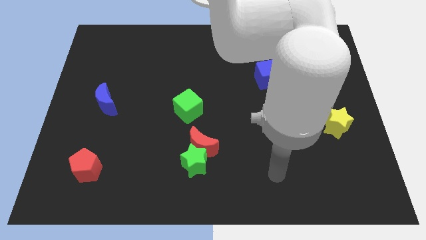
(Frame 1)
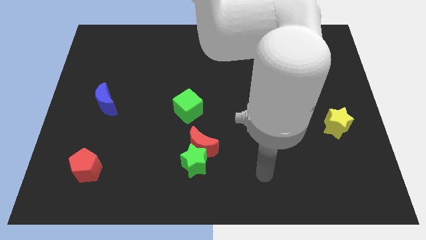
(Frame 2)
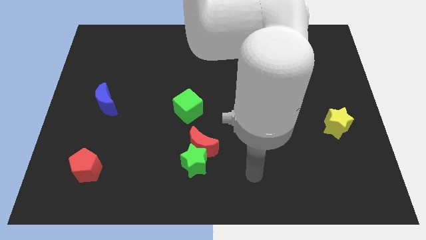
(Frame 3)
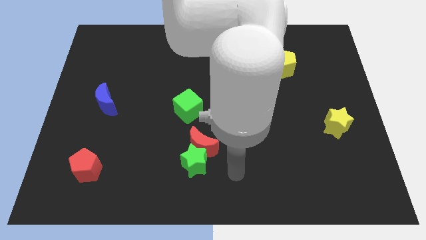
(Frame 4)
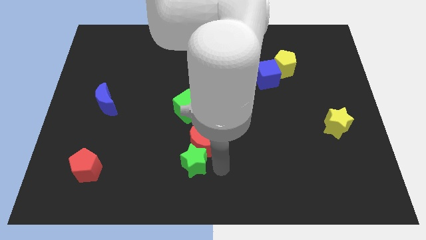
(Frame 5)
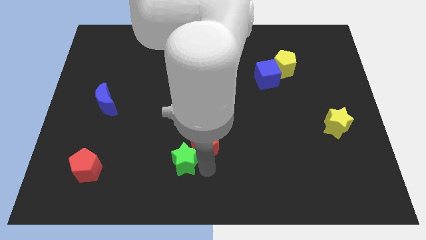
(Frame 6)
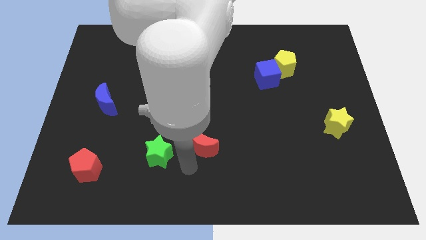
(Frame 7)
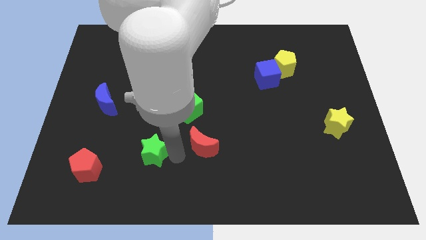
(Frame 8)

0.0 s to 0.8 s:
separate the red moon from the green star

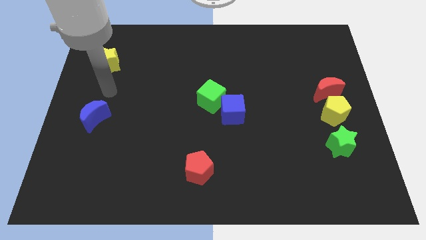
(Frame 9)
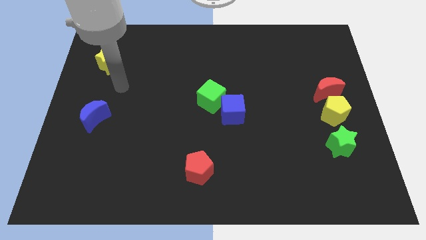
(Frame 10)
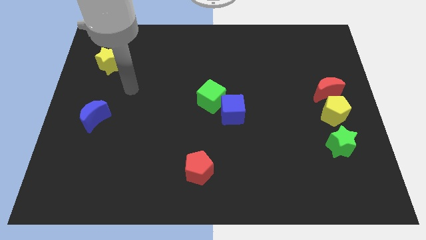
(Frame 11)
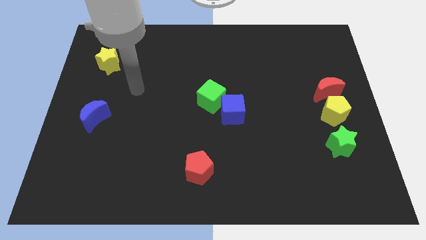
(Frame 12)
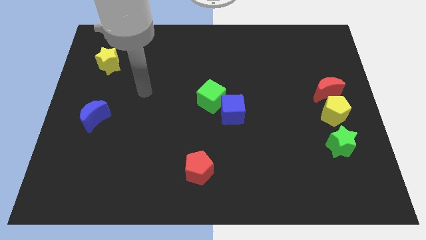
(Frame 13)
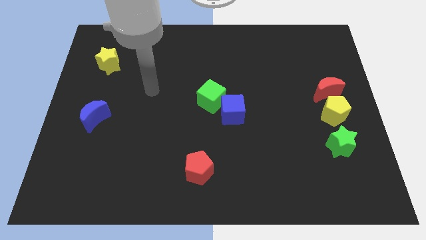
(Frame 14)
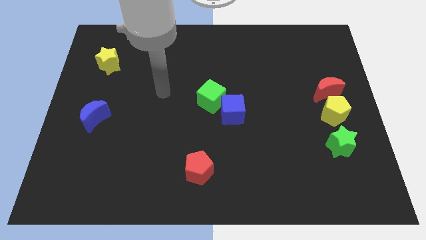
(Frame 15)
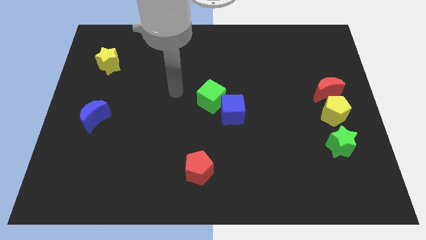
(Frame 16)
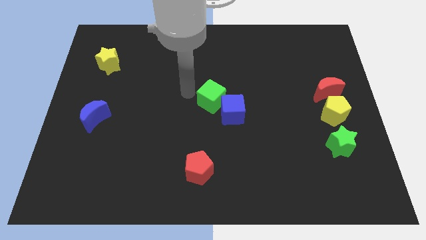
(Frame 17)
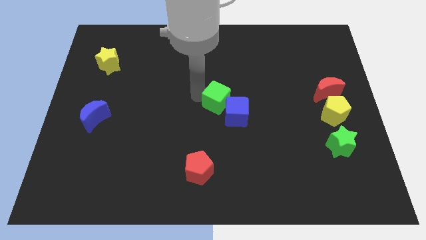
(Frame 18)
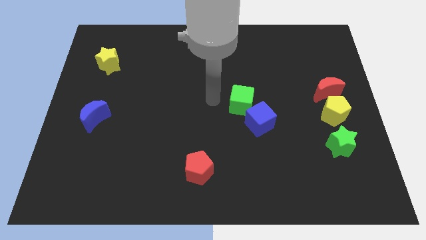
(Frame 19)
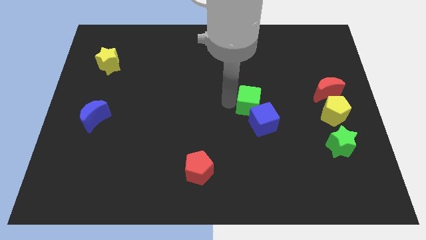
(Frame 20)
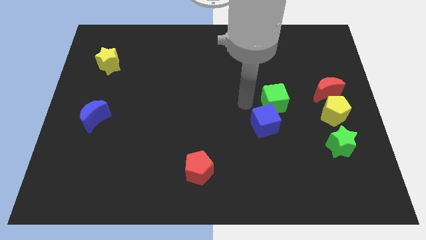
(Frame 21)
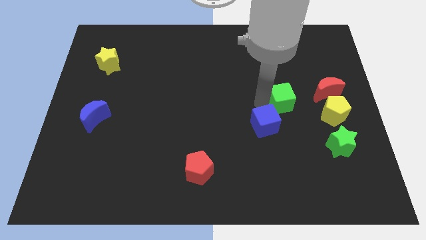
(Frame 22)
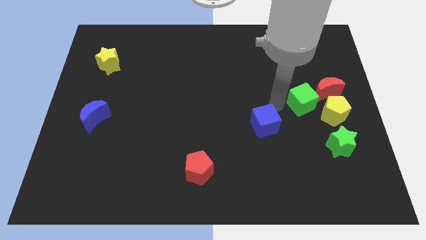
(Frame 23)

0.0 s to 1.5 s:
move the blue cube away from the green cube

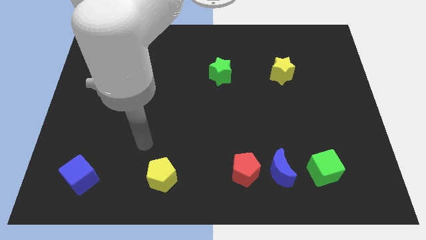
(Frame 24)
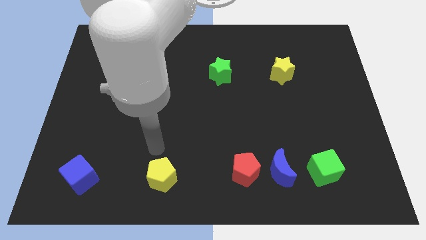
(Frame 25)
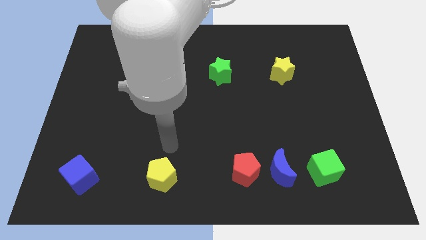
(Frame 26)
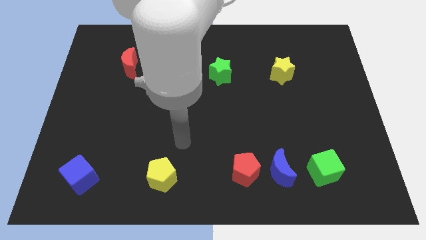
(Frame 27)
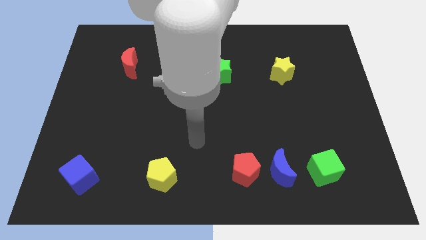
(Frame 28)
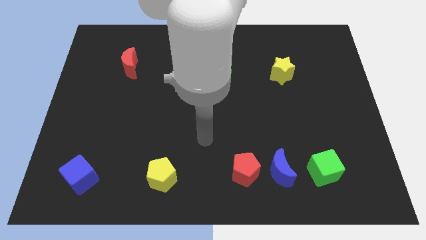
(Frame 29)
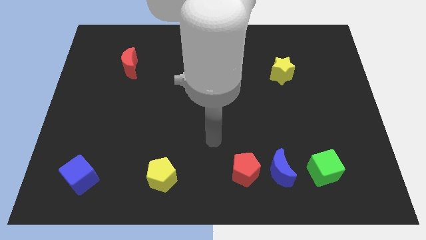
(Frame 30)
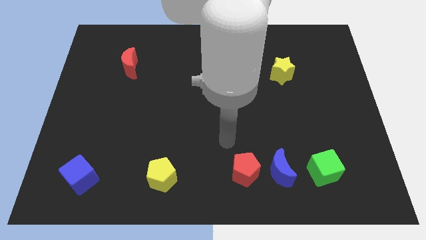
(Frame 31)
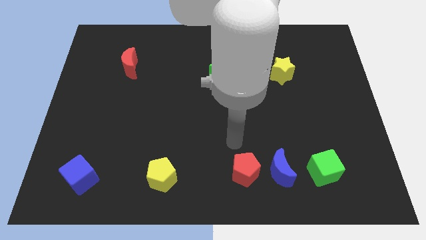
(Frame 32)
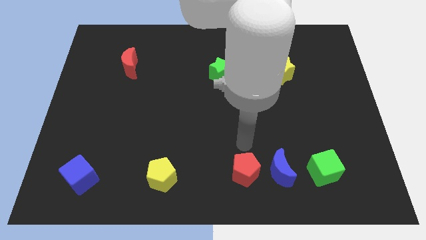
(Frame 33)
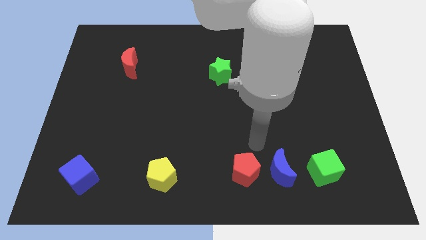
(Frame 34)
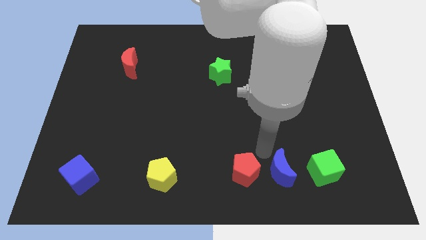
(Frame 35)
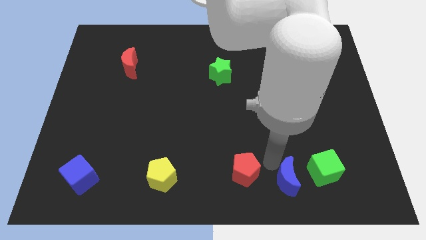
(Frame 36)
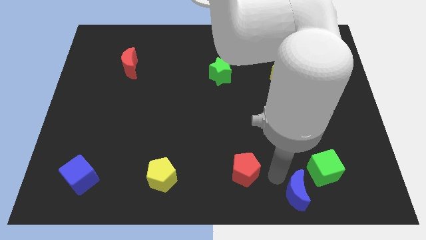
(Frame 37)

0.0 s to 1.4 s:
separate the red pentagon from the blue moon

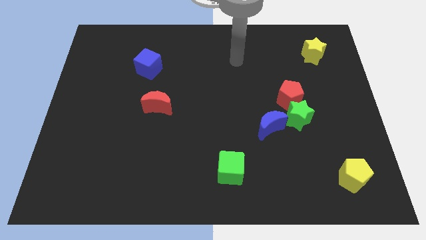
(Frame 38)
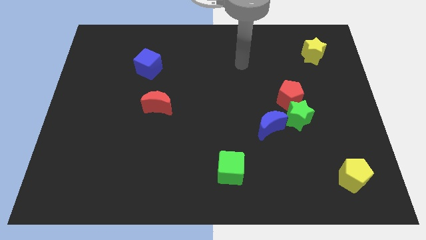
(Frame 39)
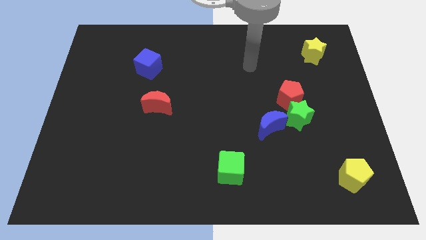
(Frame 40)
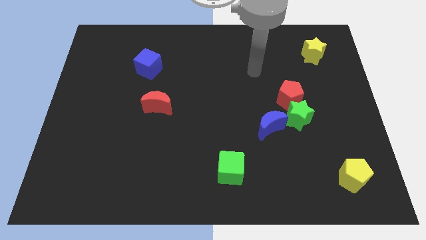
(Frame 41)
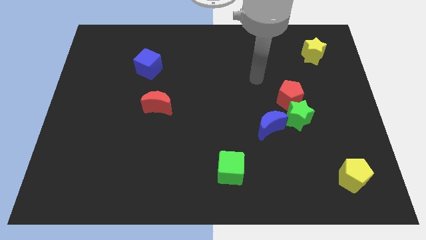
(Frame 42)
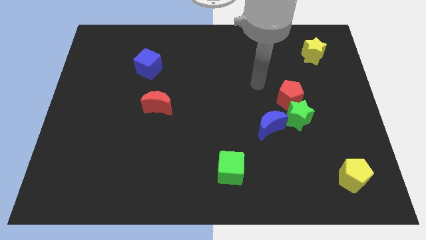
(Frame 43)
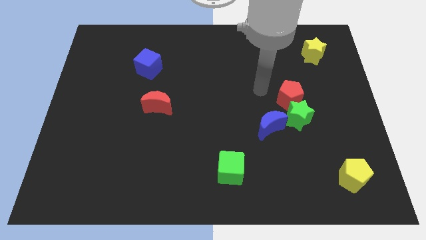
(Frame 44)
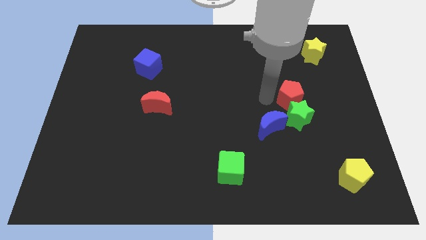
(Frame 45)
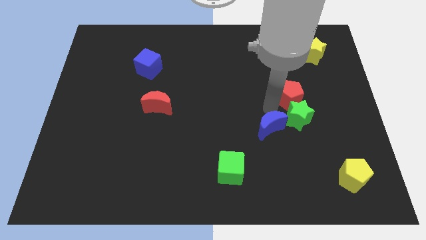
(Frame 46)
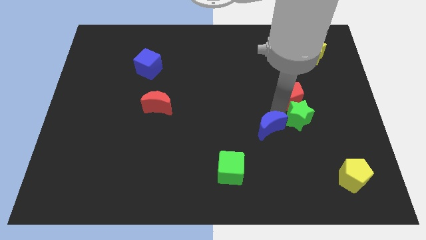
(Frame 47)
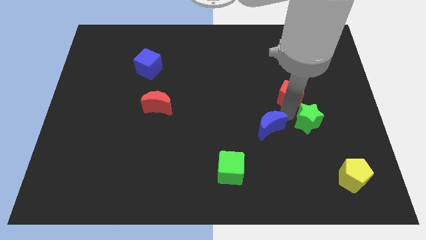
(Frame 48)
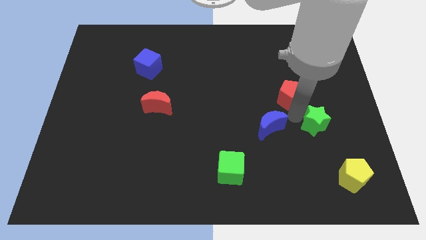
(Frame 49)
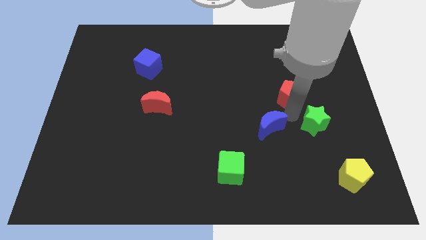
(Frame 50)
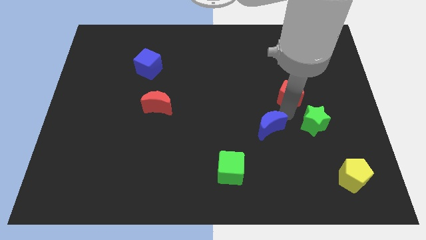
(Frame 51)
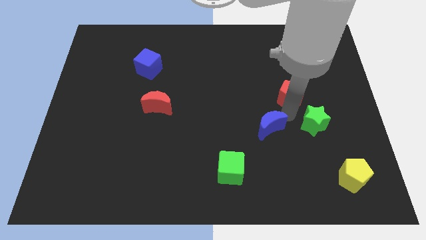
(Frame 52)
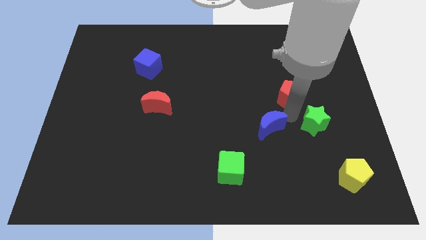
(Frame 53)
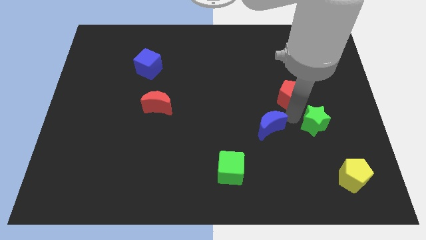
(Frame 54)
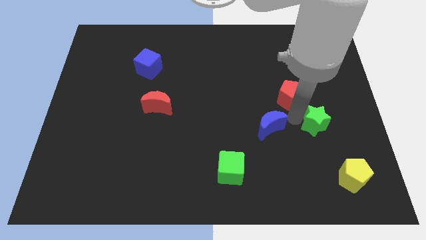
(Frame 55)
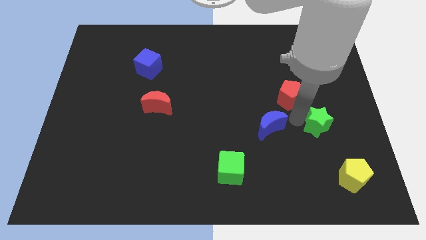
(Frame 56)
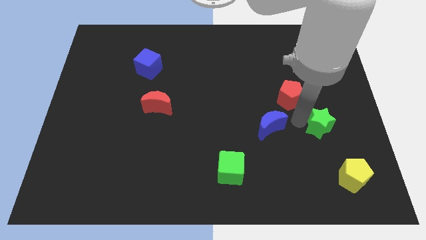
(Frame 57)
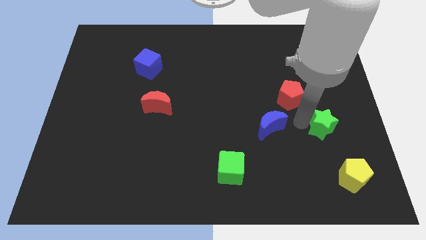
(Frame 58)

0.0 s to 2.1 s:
pull the green star apart from the red pentagon and blue moon

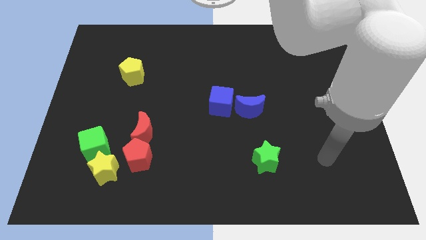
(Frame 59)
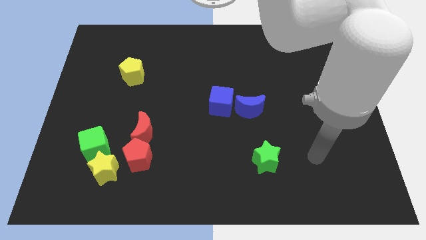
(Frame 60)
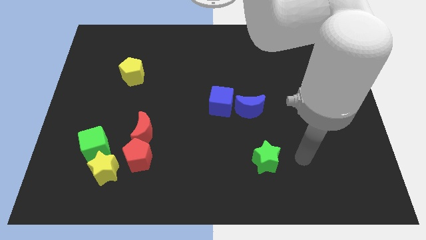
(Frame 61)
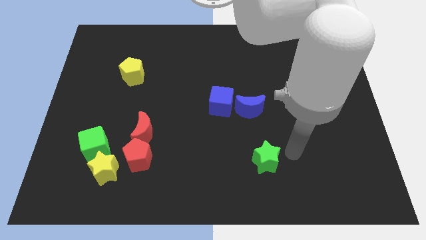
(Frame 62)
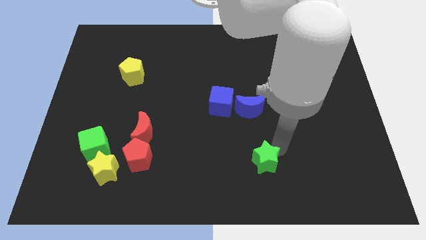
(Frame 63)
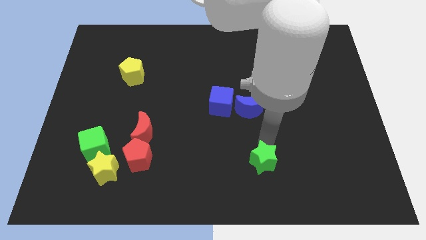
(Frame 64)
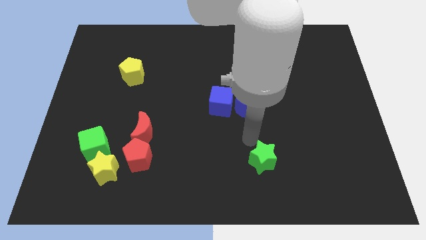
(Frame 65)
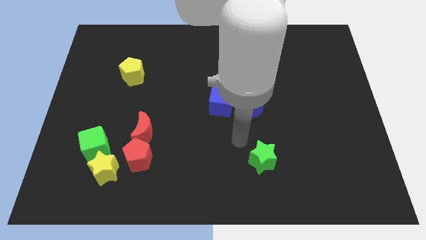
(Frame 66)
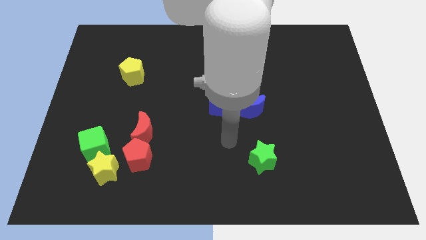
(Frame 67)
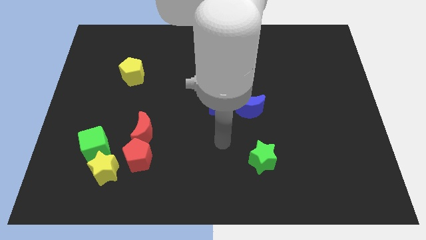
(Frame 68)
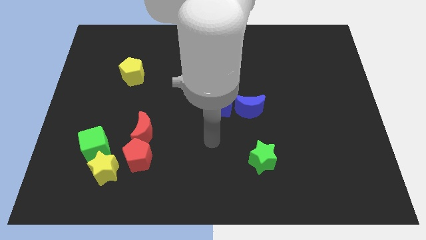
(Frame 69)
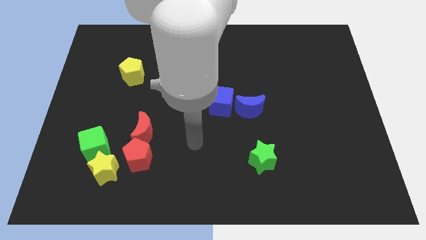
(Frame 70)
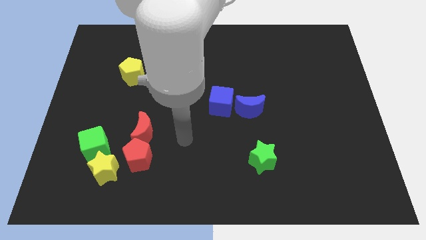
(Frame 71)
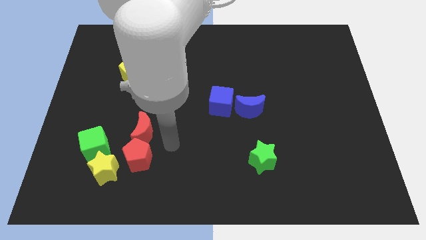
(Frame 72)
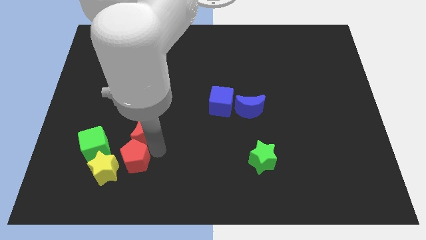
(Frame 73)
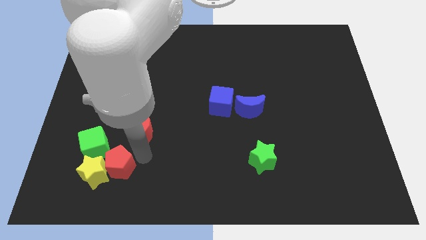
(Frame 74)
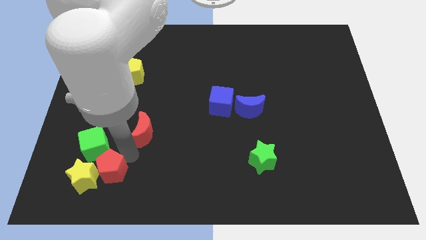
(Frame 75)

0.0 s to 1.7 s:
separate the red moon from the red pentagon

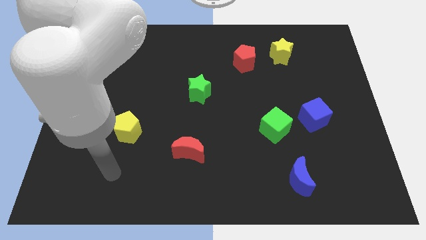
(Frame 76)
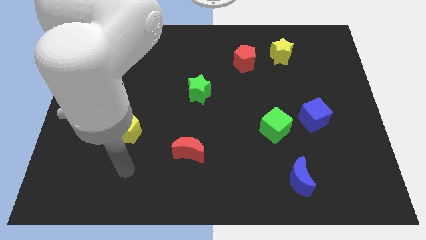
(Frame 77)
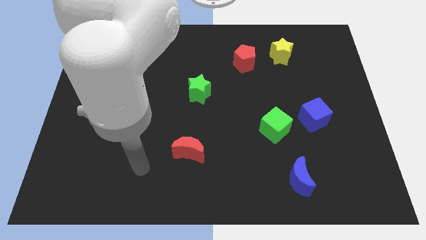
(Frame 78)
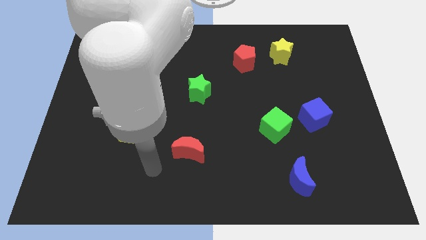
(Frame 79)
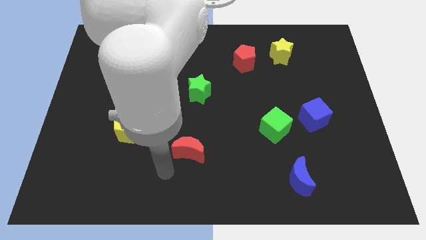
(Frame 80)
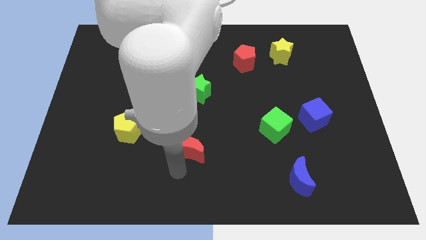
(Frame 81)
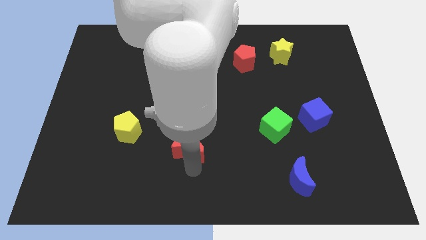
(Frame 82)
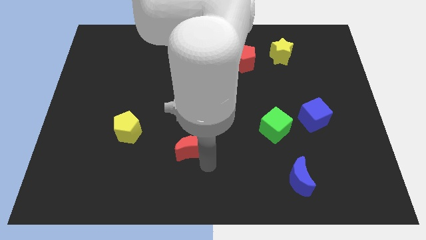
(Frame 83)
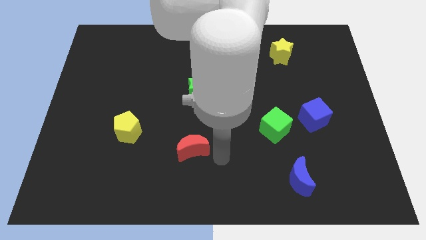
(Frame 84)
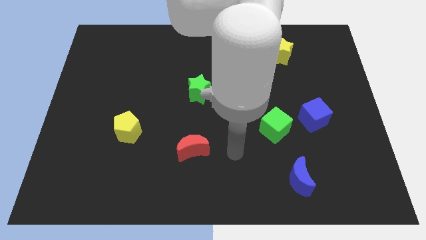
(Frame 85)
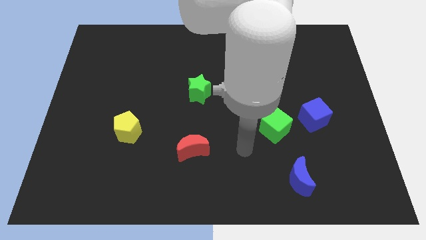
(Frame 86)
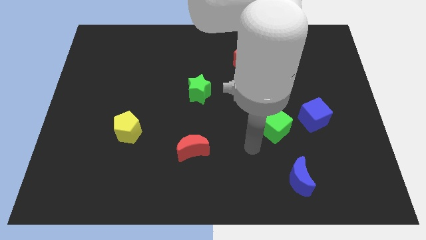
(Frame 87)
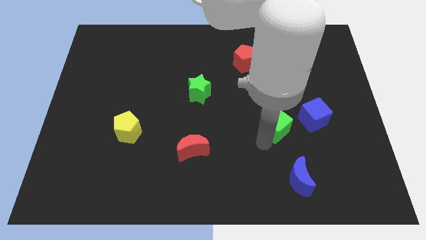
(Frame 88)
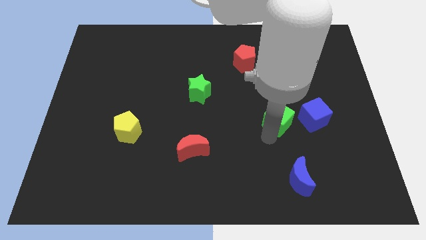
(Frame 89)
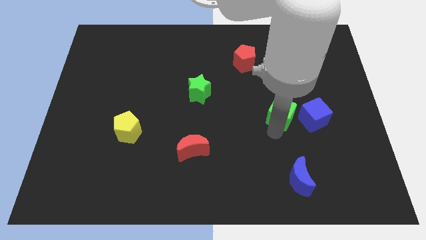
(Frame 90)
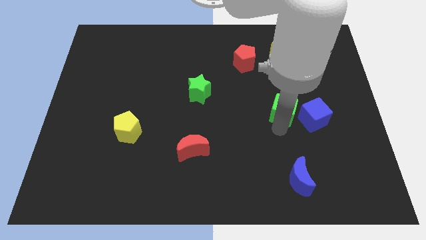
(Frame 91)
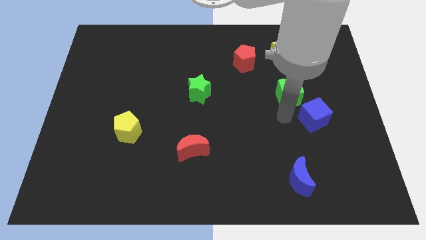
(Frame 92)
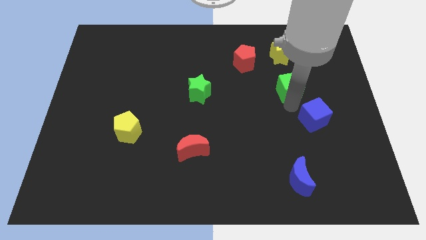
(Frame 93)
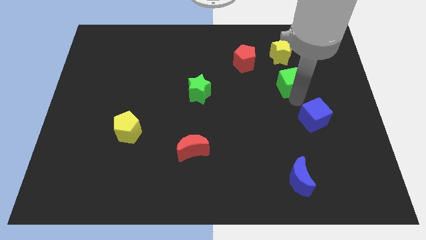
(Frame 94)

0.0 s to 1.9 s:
separate the blue cube from the green cube
